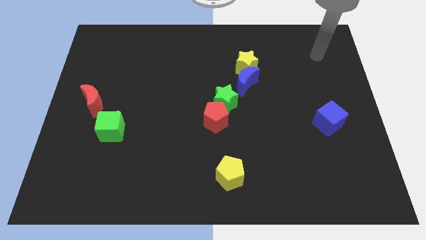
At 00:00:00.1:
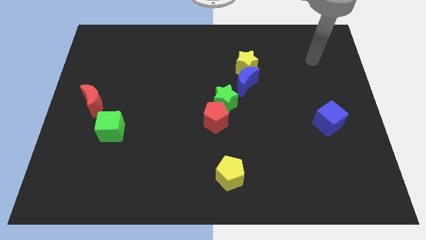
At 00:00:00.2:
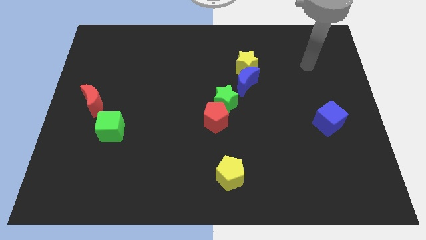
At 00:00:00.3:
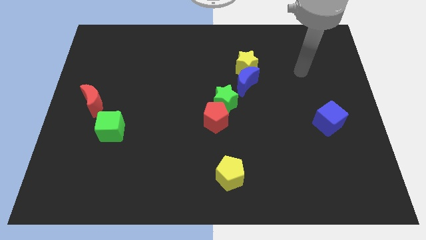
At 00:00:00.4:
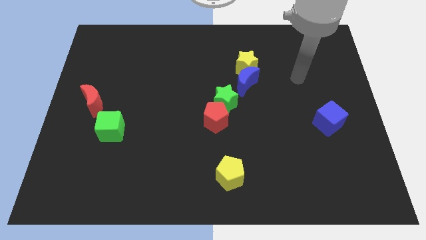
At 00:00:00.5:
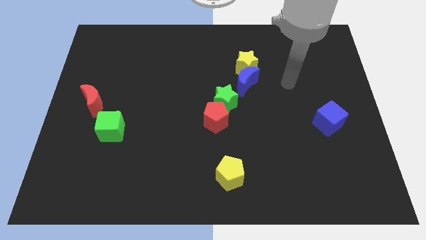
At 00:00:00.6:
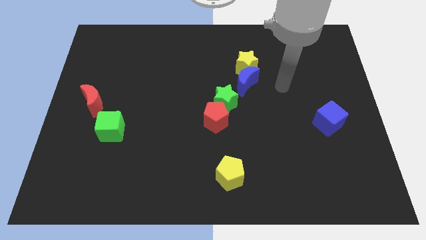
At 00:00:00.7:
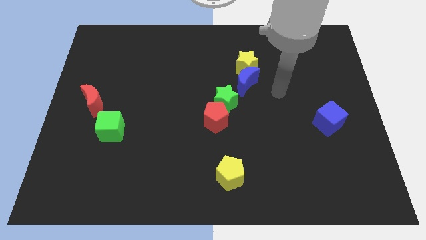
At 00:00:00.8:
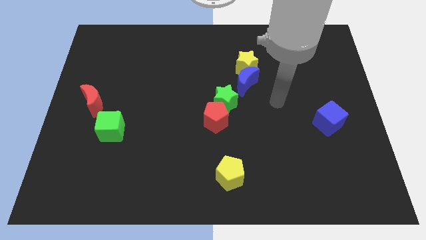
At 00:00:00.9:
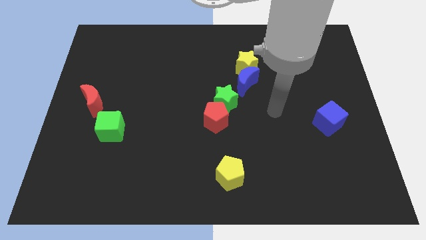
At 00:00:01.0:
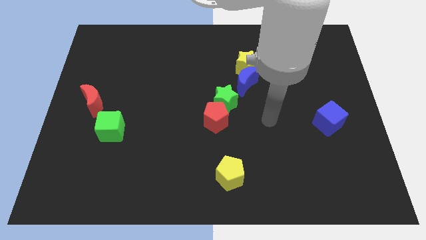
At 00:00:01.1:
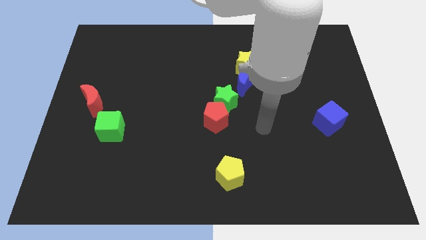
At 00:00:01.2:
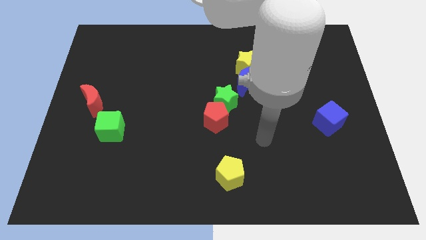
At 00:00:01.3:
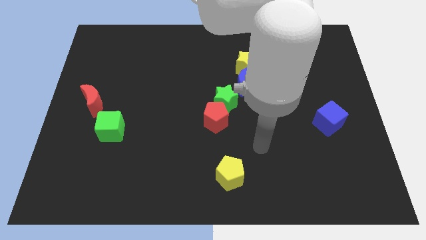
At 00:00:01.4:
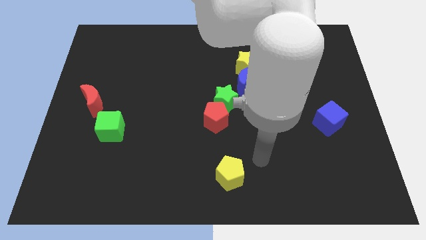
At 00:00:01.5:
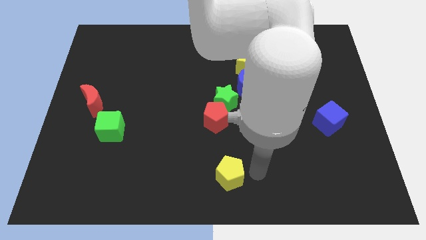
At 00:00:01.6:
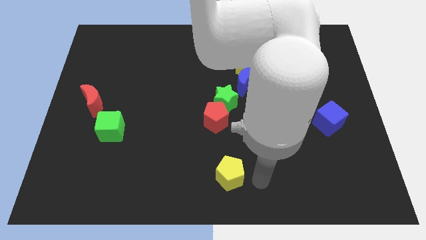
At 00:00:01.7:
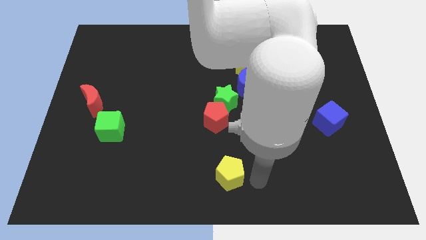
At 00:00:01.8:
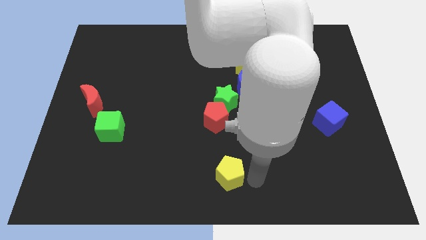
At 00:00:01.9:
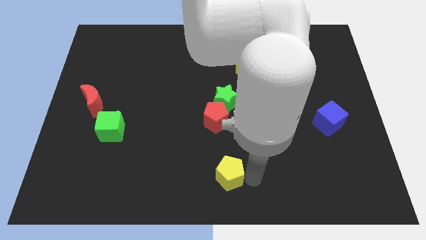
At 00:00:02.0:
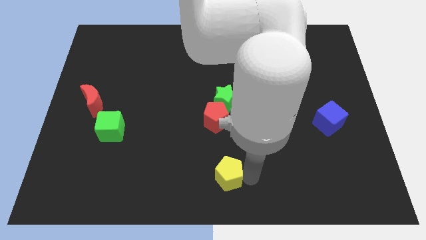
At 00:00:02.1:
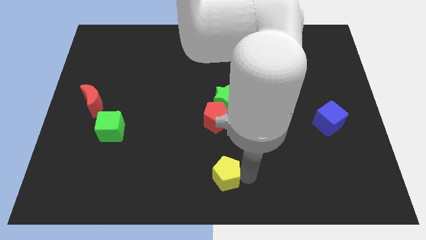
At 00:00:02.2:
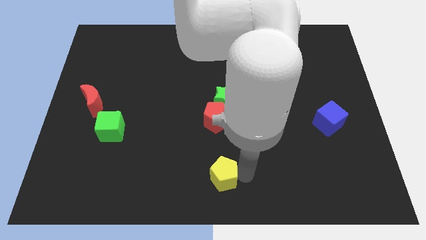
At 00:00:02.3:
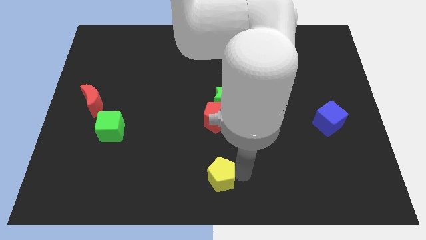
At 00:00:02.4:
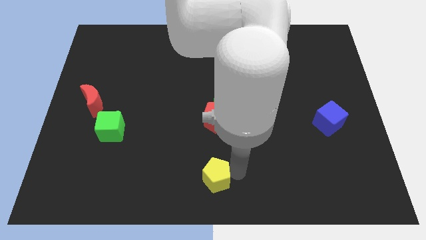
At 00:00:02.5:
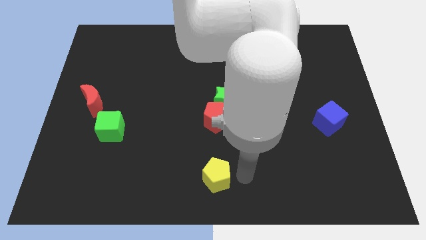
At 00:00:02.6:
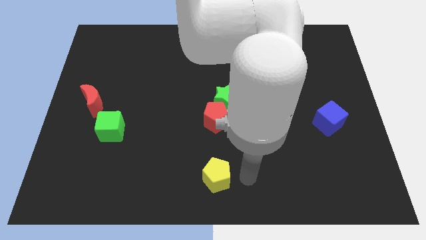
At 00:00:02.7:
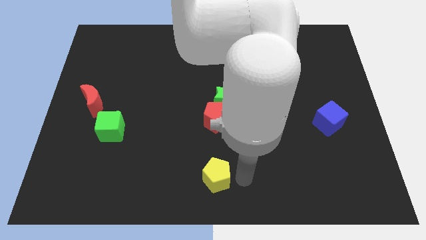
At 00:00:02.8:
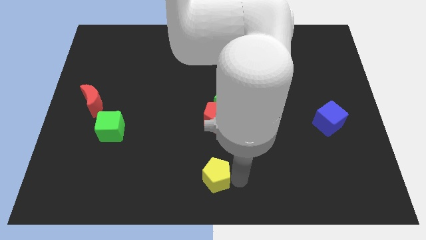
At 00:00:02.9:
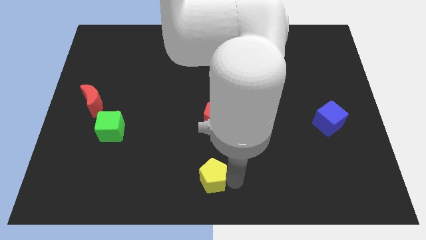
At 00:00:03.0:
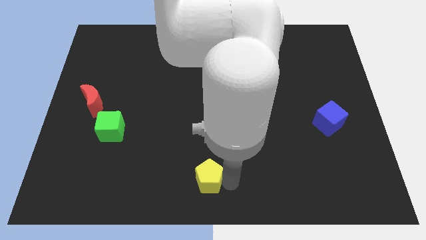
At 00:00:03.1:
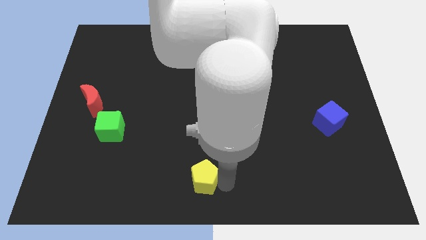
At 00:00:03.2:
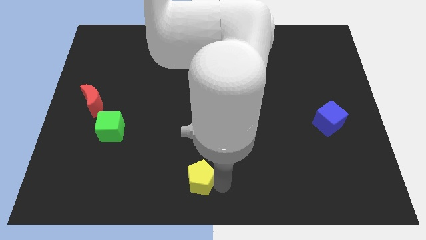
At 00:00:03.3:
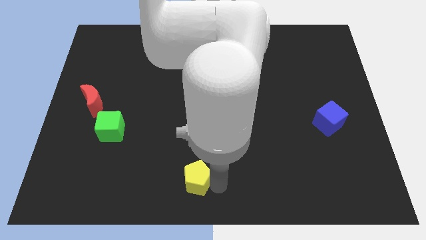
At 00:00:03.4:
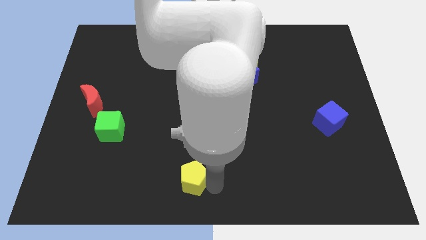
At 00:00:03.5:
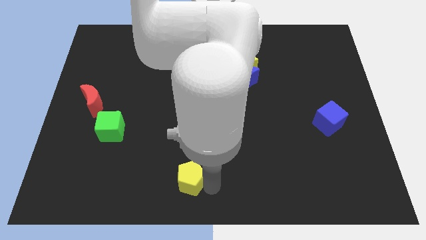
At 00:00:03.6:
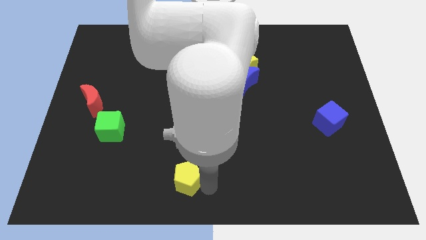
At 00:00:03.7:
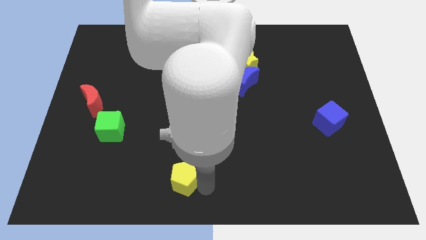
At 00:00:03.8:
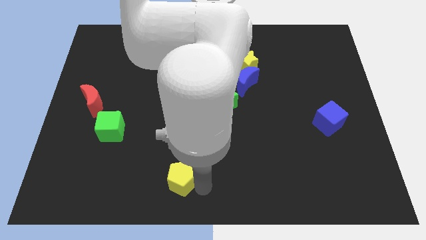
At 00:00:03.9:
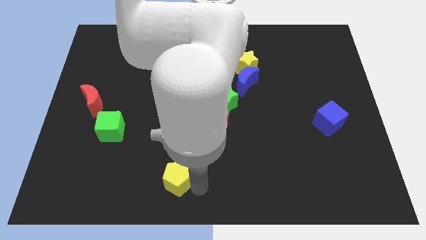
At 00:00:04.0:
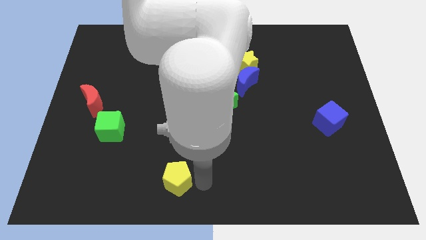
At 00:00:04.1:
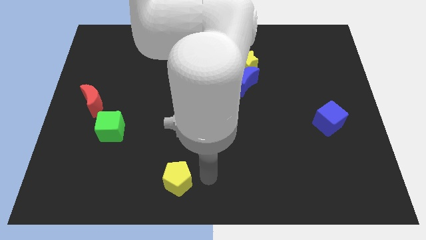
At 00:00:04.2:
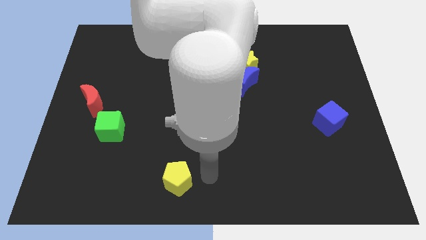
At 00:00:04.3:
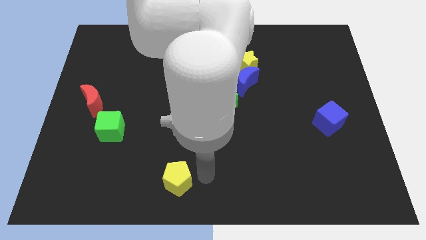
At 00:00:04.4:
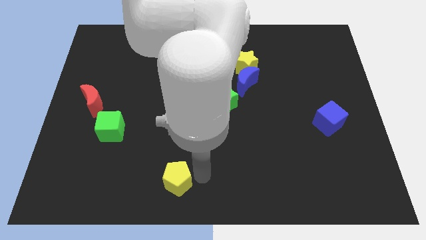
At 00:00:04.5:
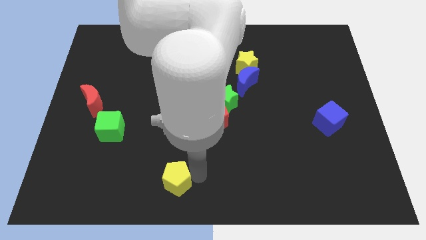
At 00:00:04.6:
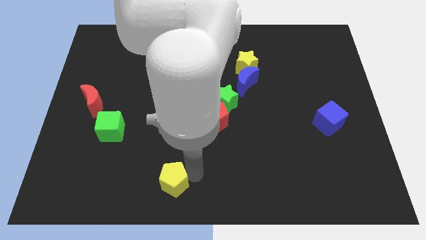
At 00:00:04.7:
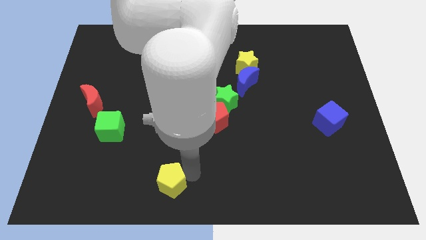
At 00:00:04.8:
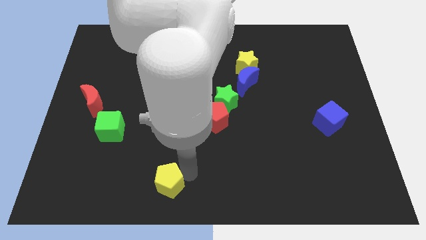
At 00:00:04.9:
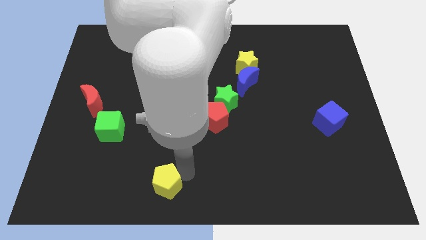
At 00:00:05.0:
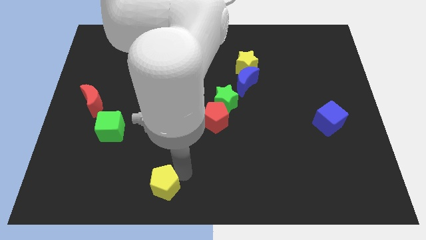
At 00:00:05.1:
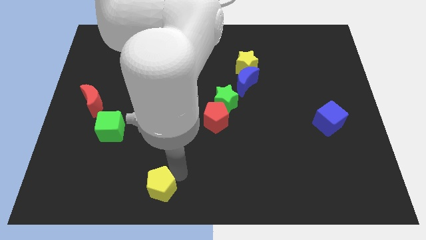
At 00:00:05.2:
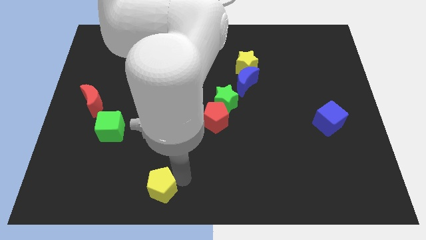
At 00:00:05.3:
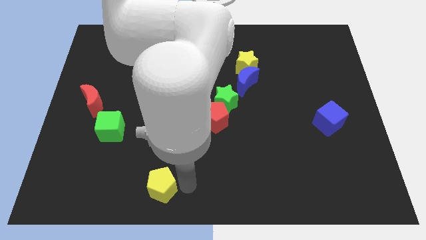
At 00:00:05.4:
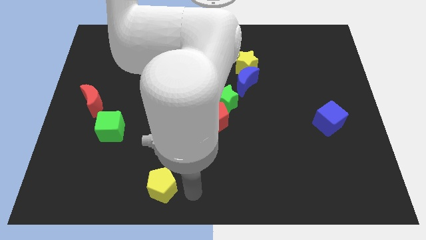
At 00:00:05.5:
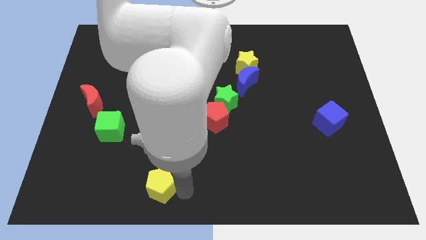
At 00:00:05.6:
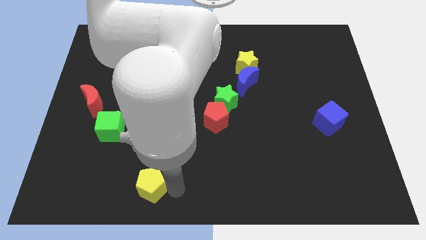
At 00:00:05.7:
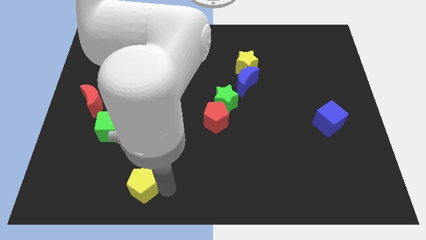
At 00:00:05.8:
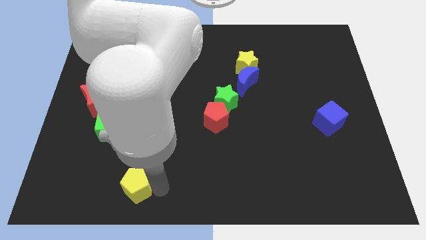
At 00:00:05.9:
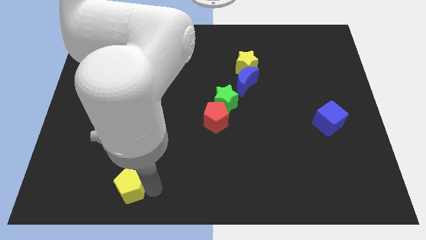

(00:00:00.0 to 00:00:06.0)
slide the yellow pentagon to the left

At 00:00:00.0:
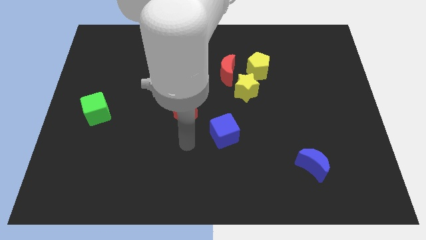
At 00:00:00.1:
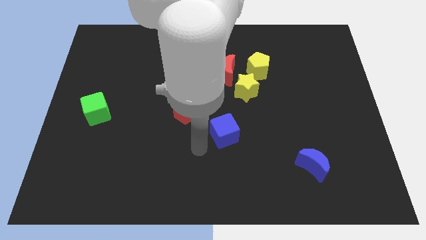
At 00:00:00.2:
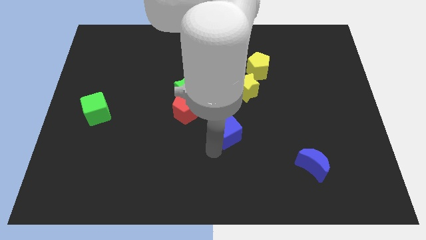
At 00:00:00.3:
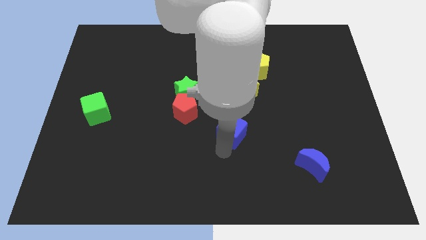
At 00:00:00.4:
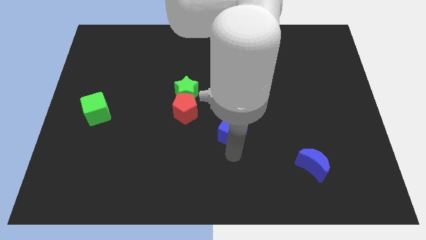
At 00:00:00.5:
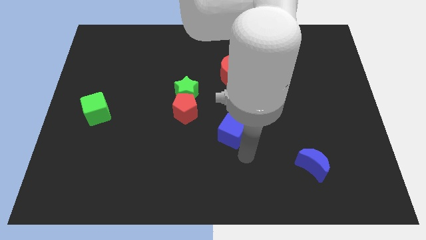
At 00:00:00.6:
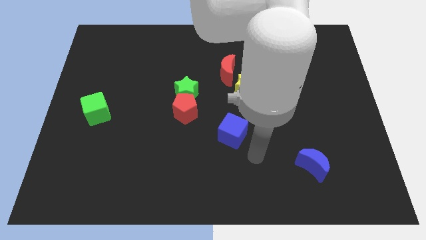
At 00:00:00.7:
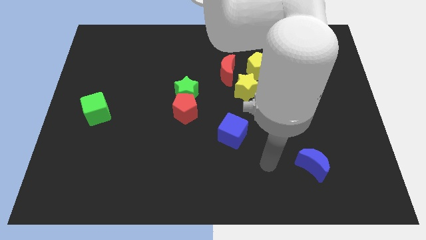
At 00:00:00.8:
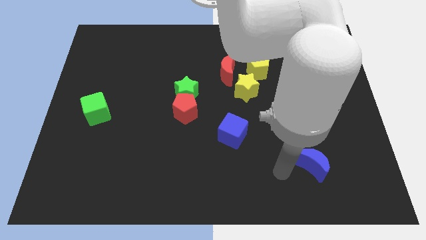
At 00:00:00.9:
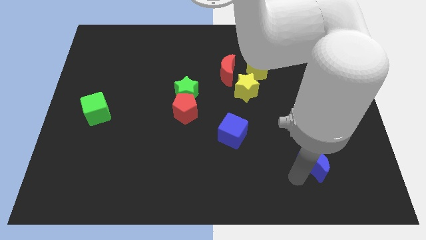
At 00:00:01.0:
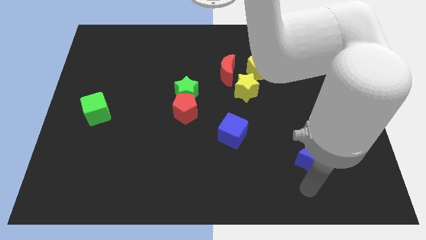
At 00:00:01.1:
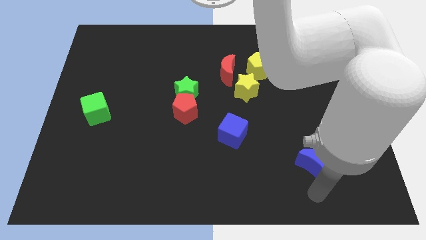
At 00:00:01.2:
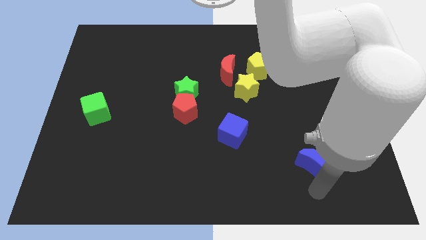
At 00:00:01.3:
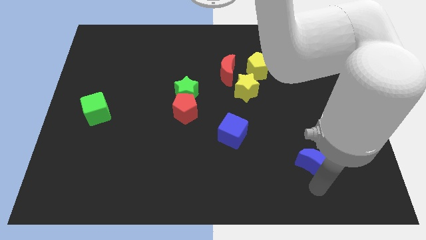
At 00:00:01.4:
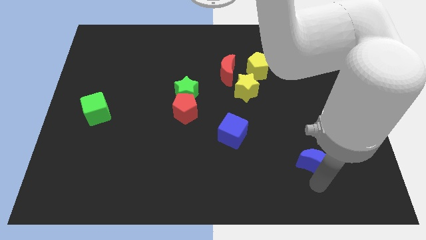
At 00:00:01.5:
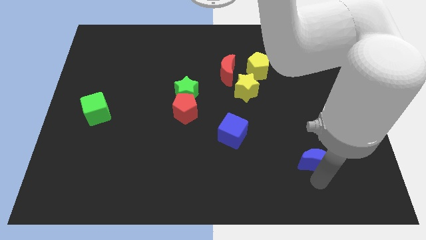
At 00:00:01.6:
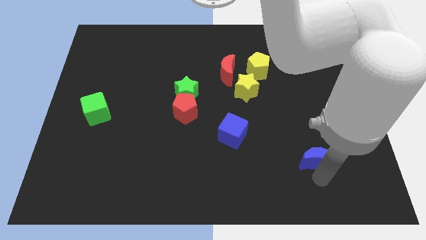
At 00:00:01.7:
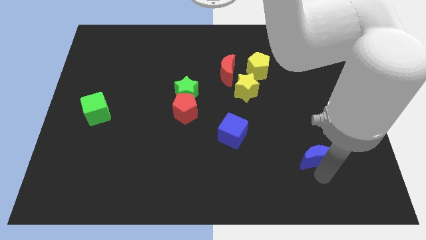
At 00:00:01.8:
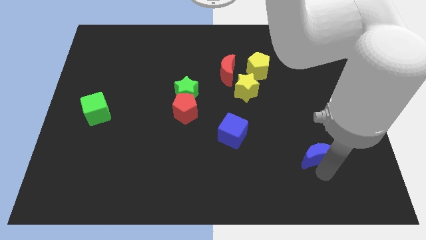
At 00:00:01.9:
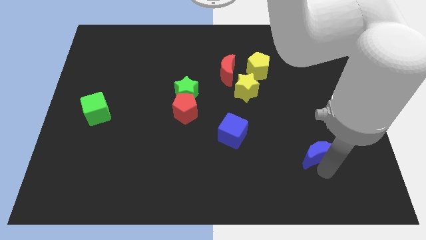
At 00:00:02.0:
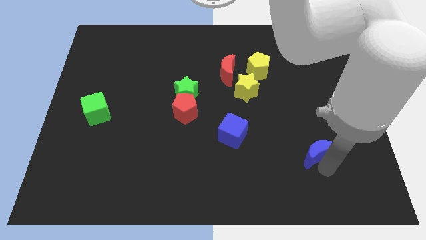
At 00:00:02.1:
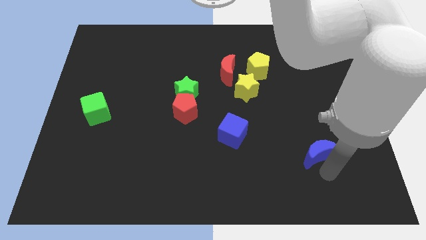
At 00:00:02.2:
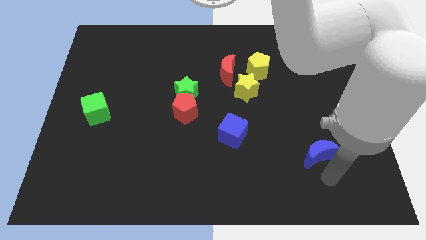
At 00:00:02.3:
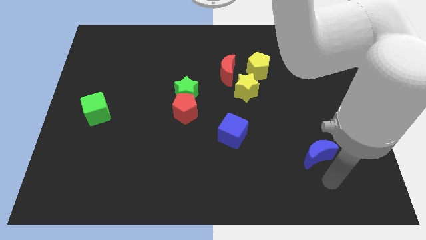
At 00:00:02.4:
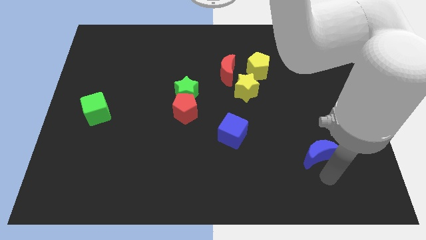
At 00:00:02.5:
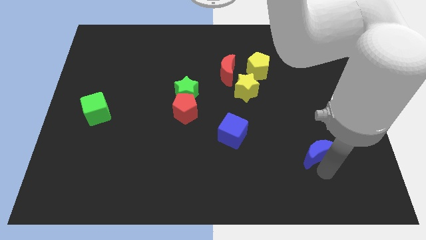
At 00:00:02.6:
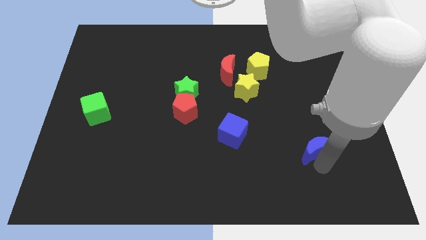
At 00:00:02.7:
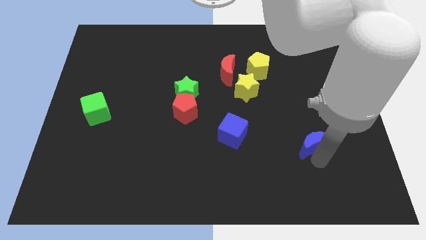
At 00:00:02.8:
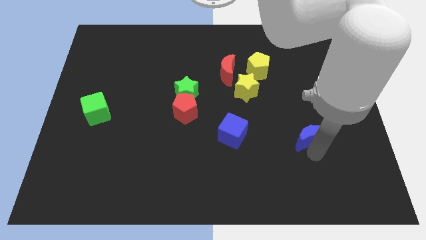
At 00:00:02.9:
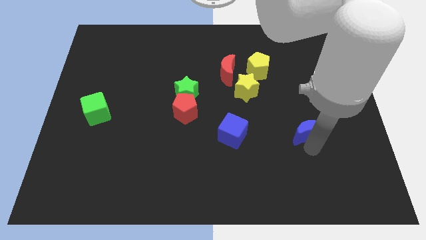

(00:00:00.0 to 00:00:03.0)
move the blue moon a little upwards
